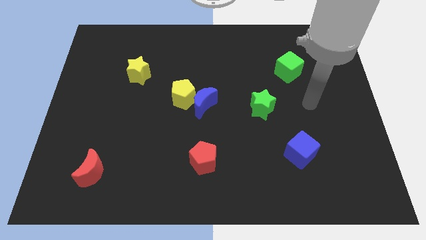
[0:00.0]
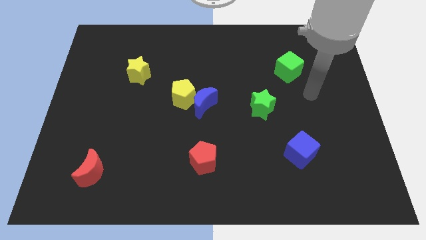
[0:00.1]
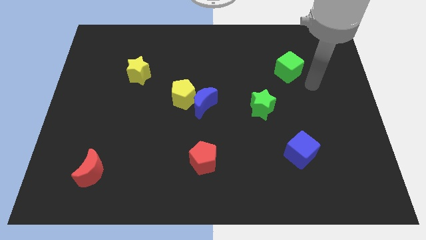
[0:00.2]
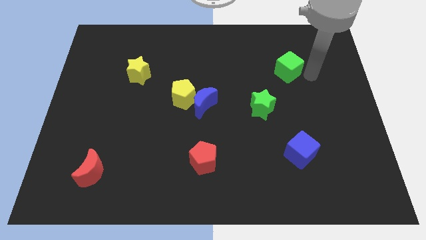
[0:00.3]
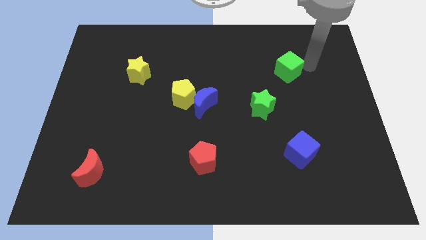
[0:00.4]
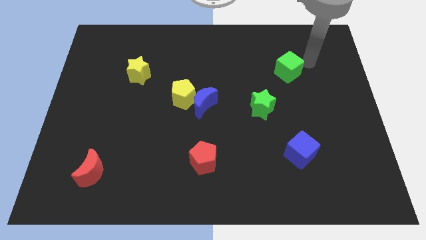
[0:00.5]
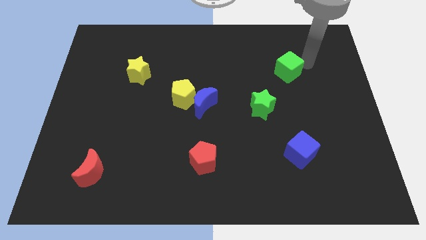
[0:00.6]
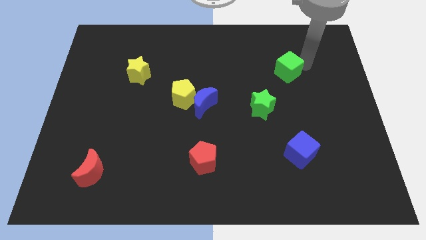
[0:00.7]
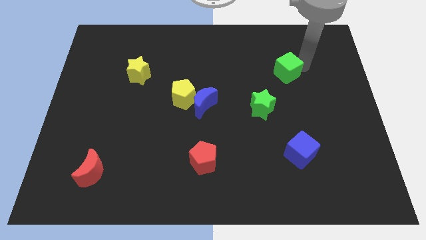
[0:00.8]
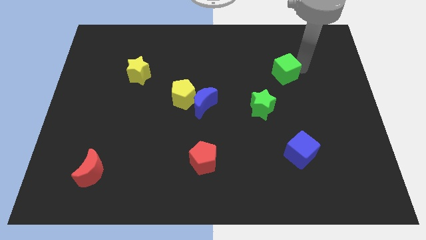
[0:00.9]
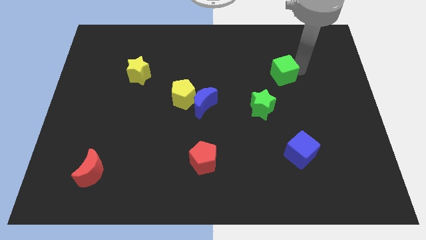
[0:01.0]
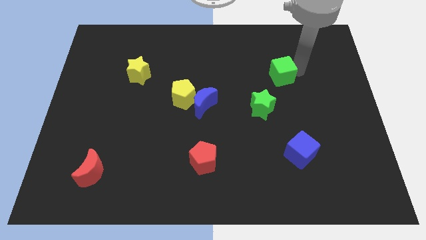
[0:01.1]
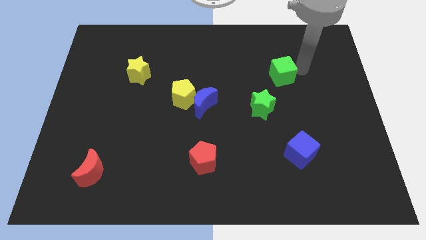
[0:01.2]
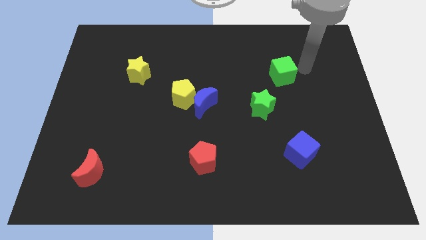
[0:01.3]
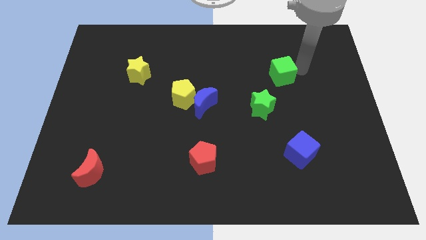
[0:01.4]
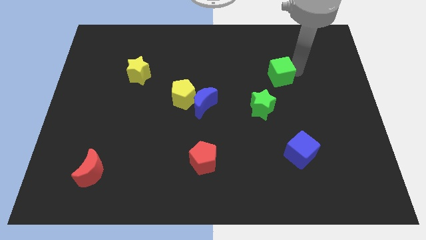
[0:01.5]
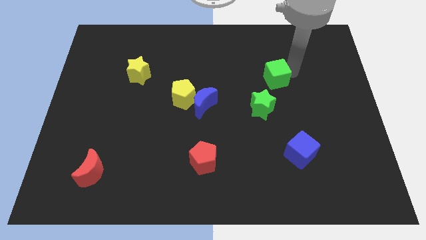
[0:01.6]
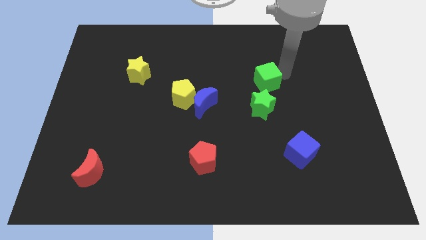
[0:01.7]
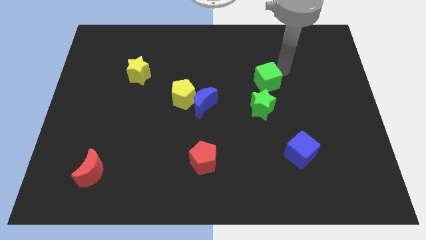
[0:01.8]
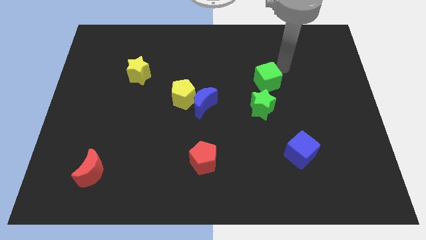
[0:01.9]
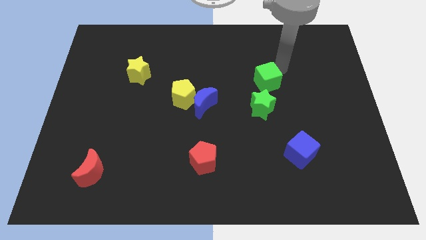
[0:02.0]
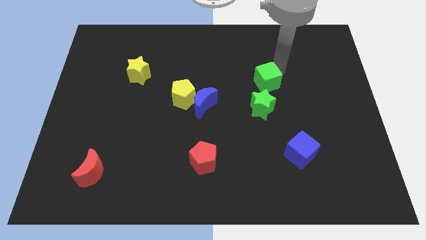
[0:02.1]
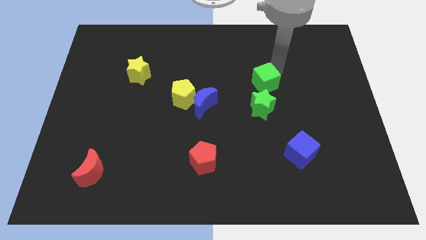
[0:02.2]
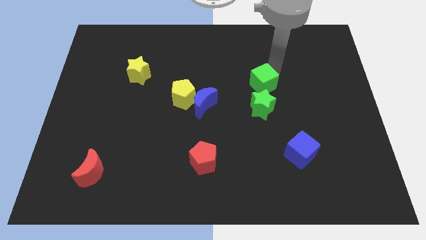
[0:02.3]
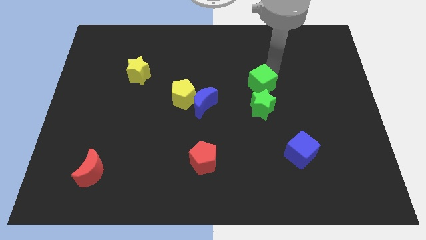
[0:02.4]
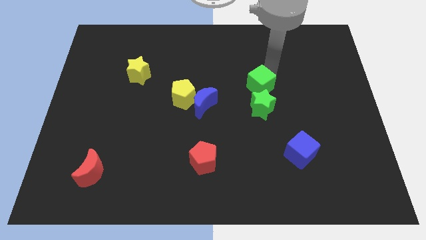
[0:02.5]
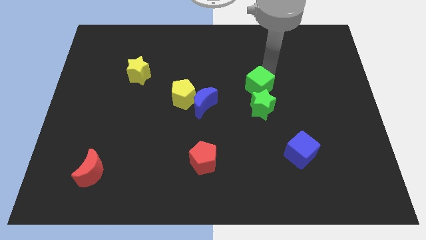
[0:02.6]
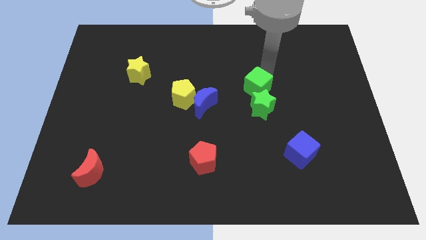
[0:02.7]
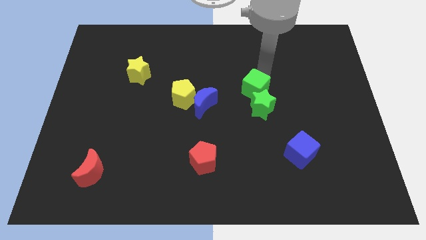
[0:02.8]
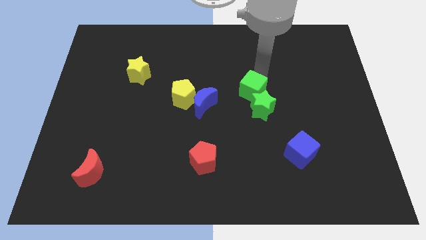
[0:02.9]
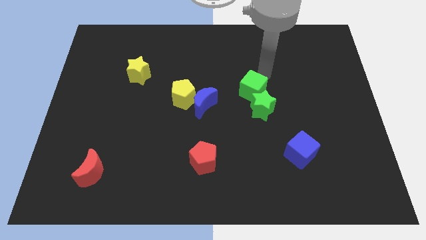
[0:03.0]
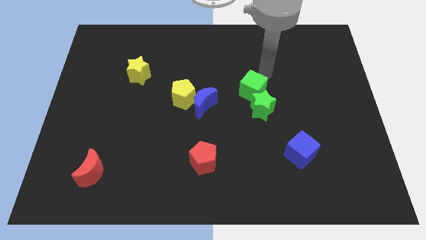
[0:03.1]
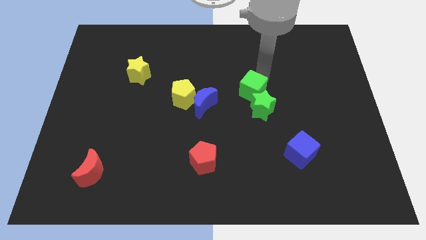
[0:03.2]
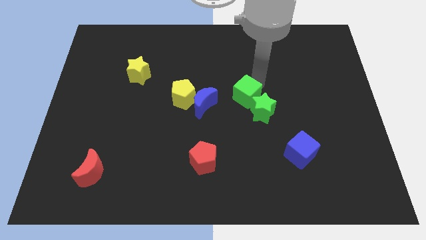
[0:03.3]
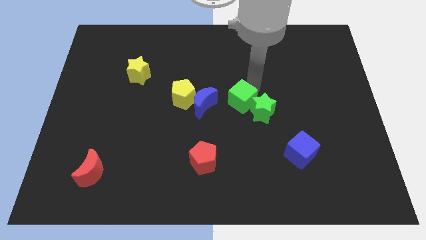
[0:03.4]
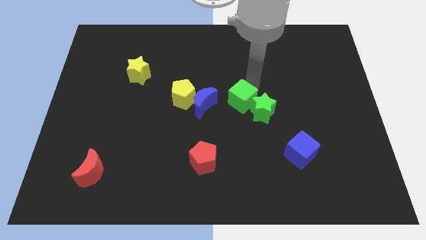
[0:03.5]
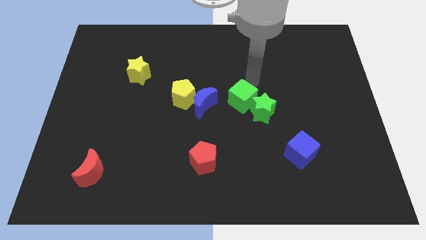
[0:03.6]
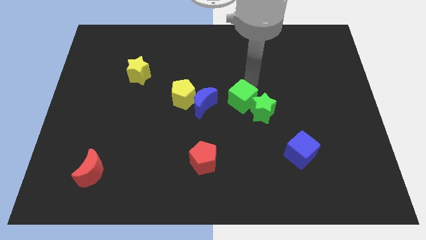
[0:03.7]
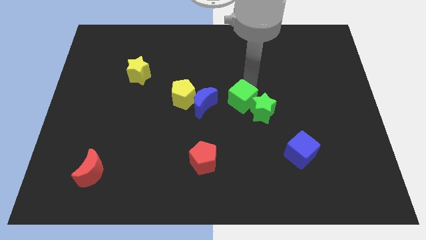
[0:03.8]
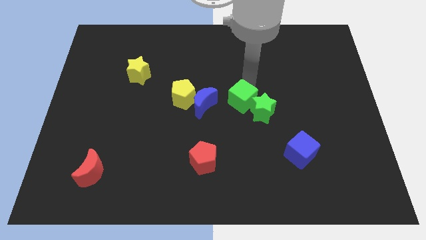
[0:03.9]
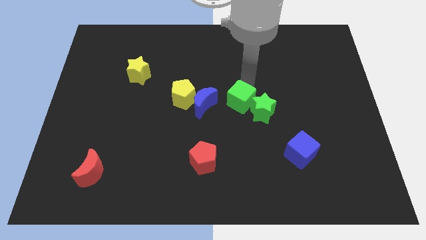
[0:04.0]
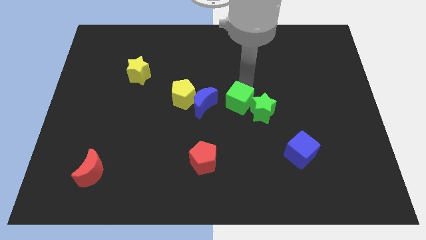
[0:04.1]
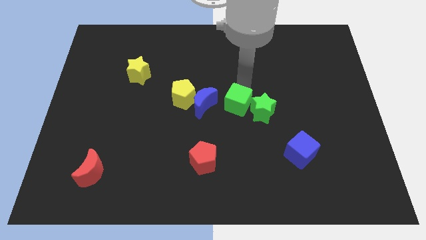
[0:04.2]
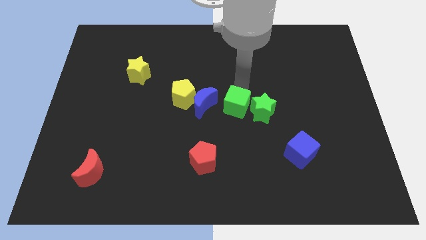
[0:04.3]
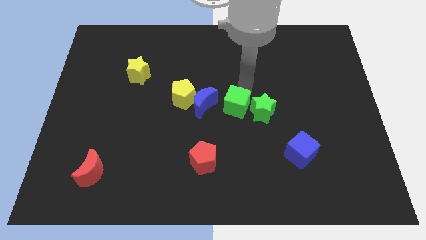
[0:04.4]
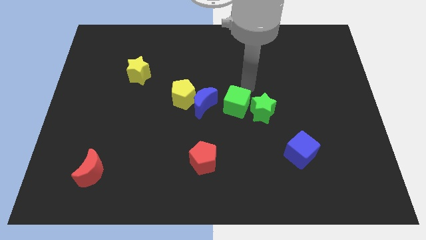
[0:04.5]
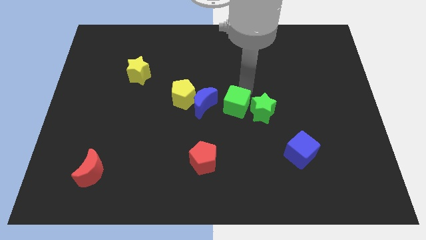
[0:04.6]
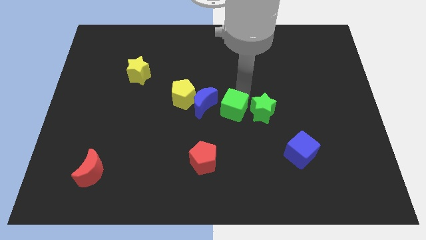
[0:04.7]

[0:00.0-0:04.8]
slide the green cube to the bottom right of the blue moon

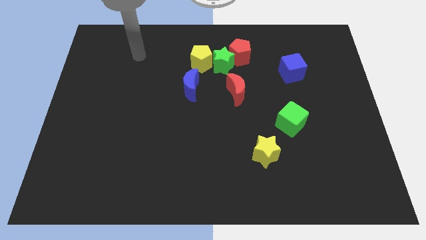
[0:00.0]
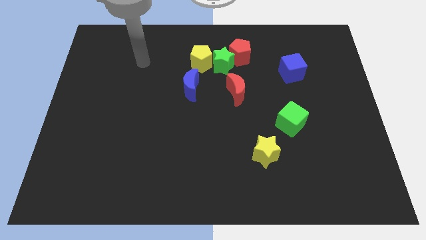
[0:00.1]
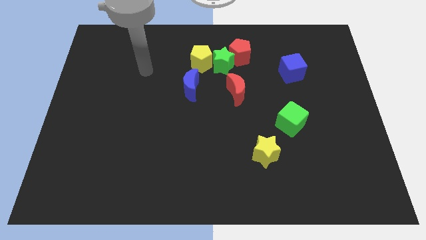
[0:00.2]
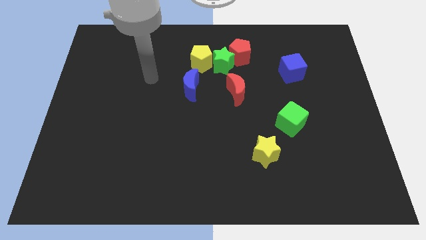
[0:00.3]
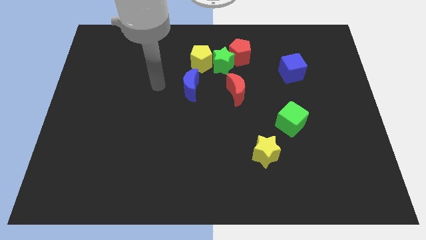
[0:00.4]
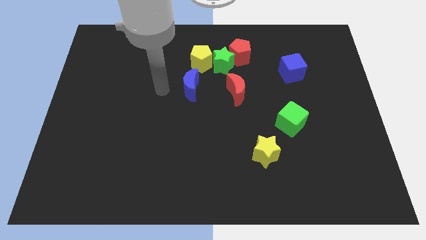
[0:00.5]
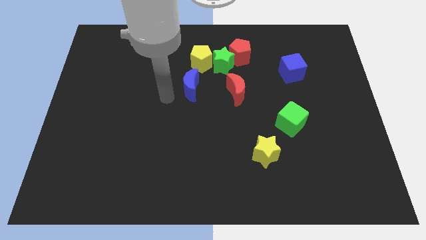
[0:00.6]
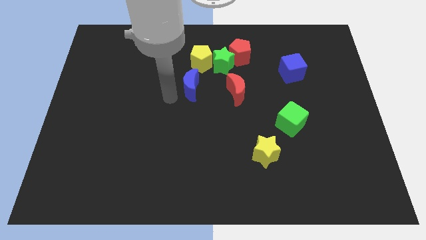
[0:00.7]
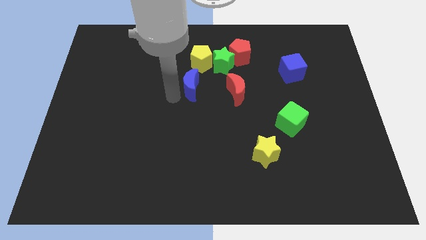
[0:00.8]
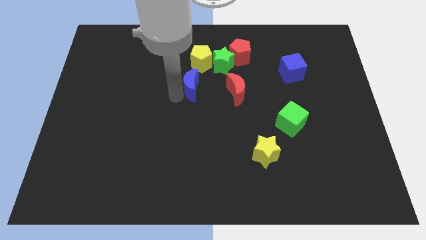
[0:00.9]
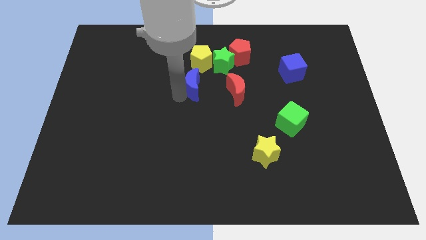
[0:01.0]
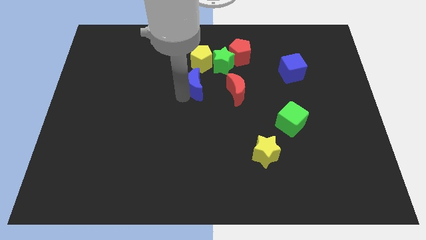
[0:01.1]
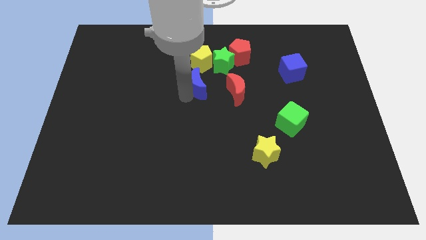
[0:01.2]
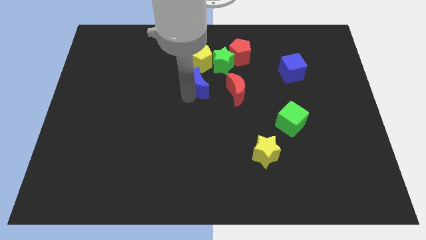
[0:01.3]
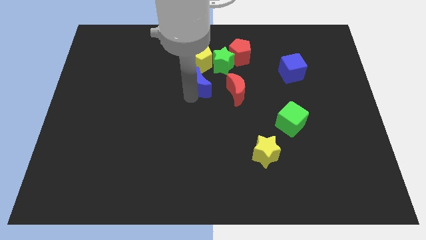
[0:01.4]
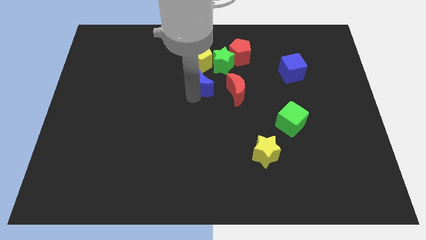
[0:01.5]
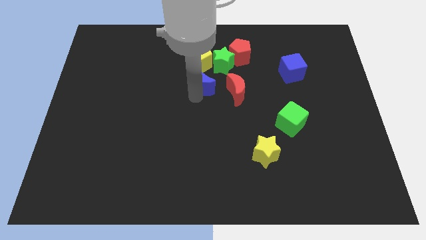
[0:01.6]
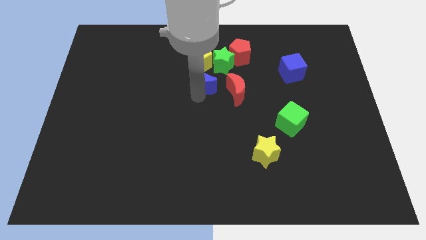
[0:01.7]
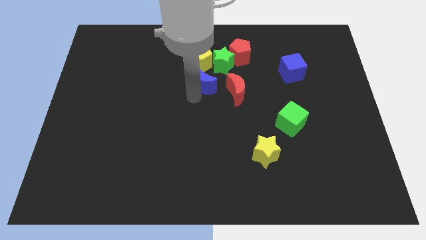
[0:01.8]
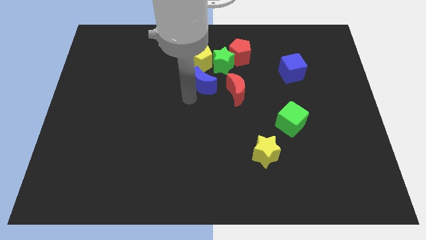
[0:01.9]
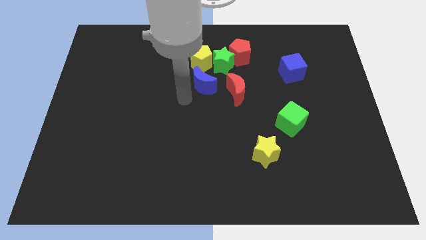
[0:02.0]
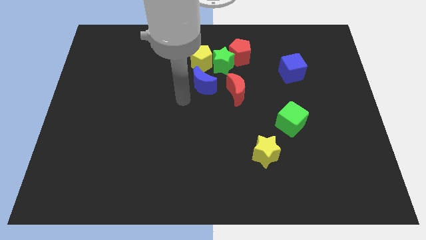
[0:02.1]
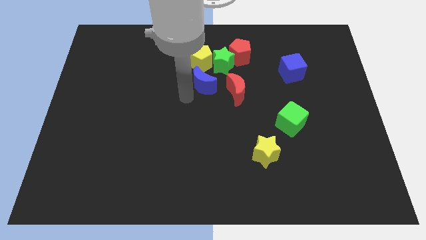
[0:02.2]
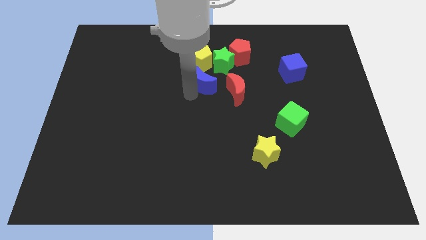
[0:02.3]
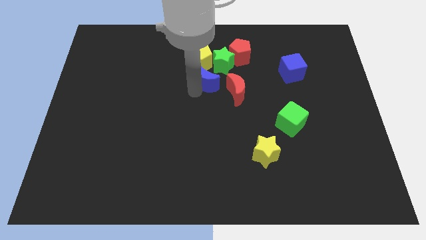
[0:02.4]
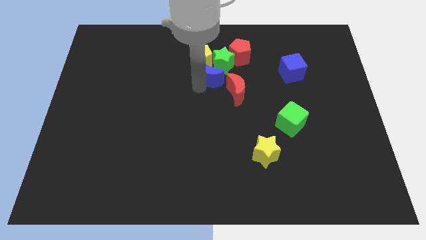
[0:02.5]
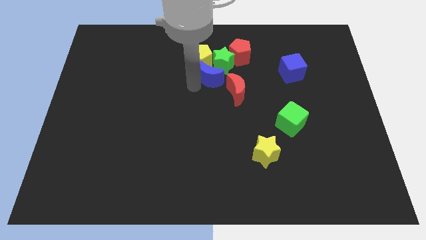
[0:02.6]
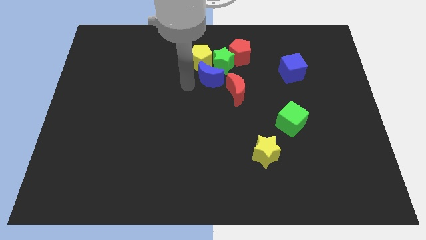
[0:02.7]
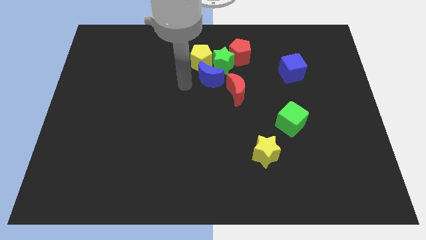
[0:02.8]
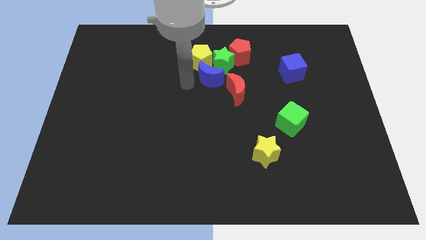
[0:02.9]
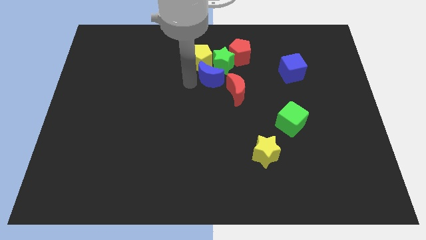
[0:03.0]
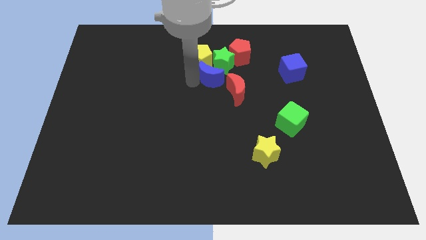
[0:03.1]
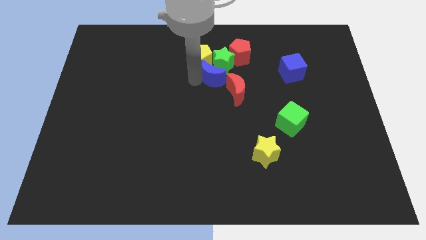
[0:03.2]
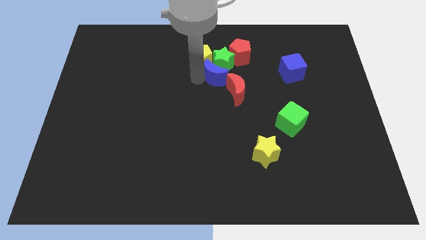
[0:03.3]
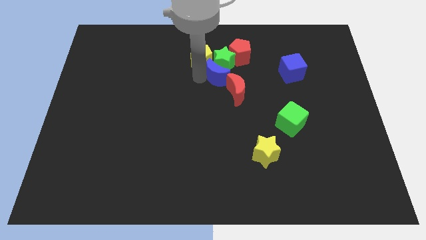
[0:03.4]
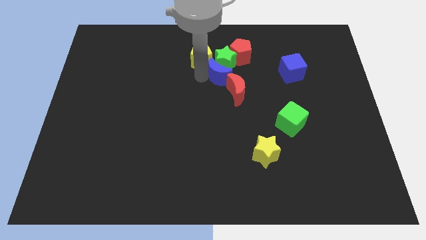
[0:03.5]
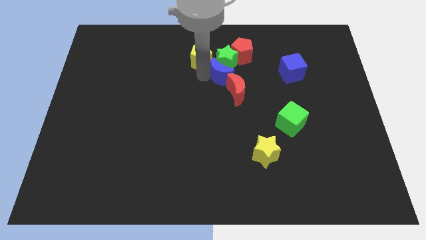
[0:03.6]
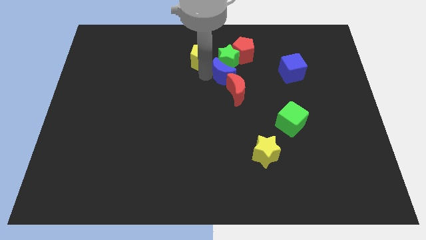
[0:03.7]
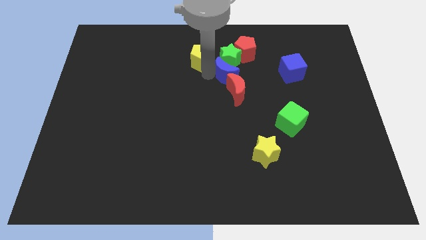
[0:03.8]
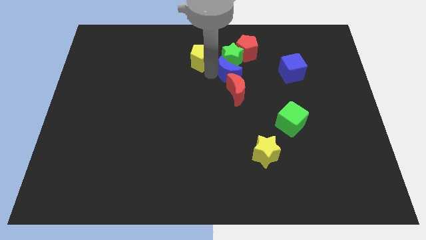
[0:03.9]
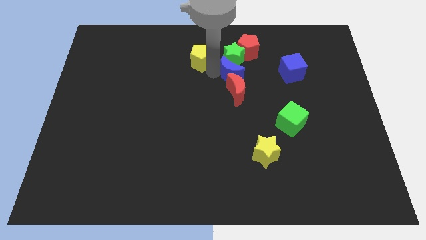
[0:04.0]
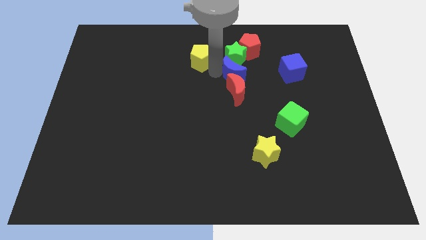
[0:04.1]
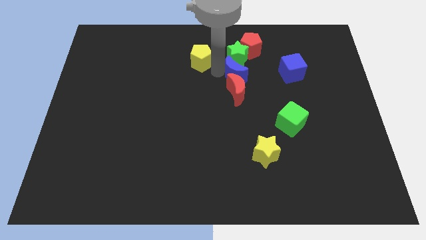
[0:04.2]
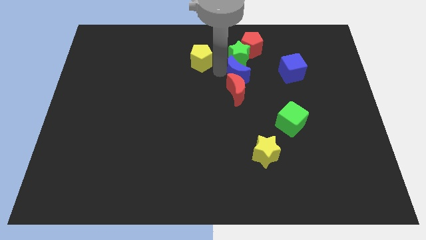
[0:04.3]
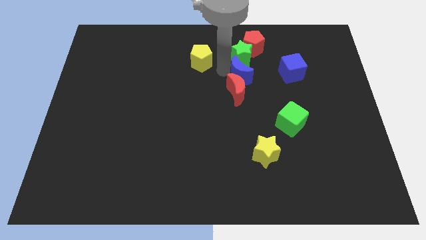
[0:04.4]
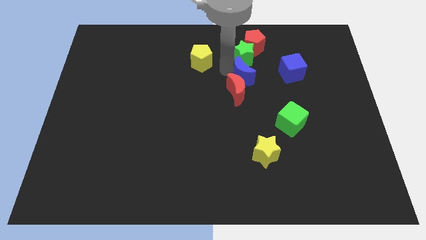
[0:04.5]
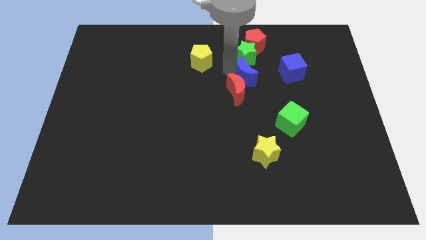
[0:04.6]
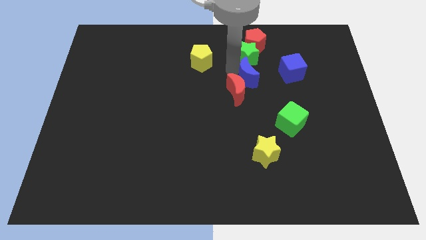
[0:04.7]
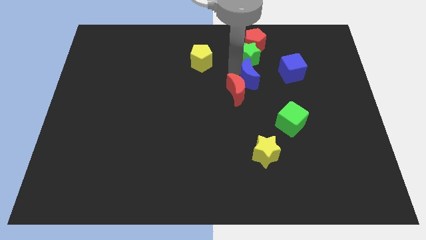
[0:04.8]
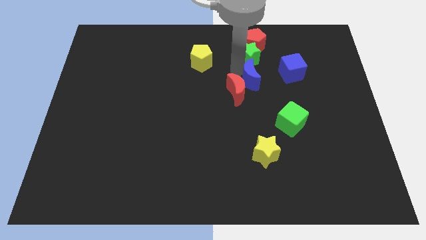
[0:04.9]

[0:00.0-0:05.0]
put the blue moon just right of the red moon
